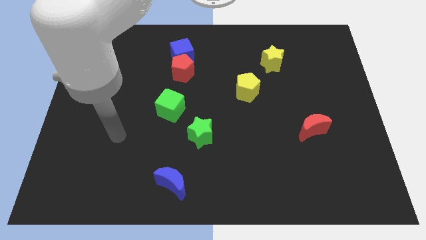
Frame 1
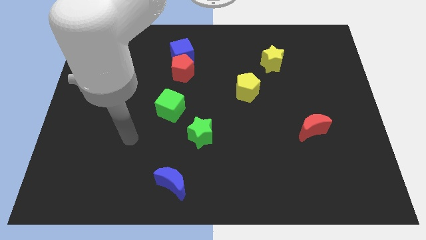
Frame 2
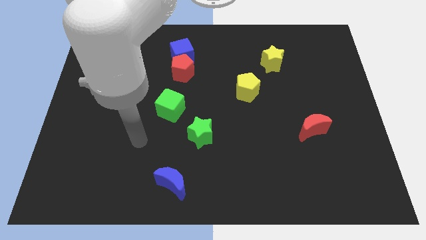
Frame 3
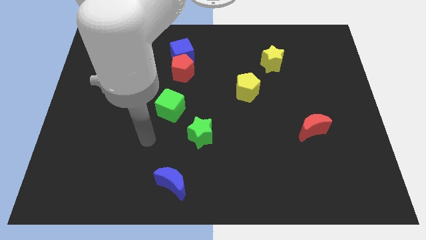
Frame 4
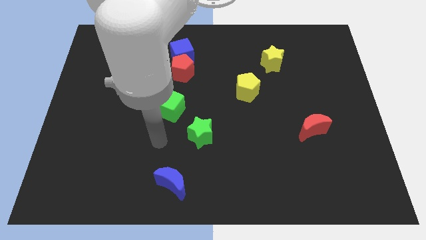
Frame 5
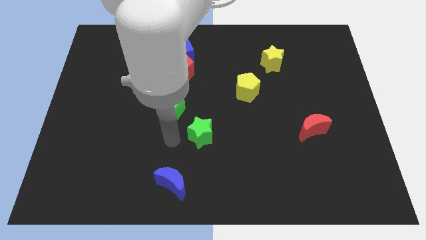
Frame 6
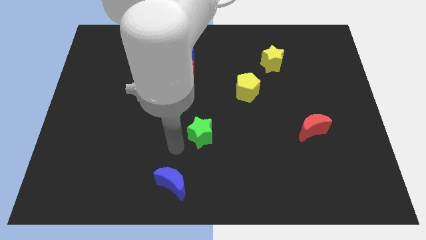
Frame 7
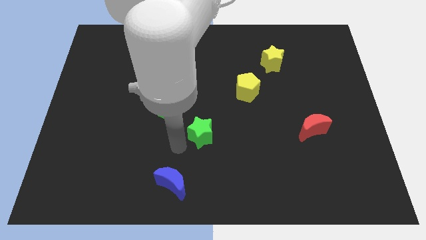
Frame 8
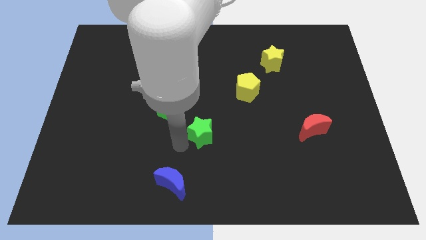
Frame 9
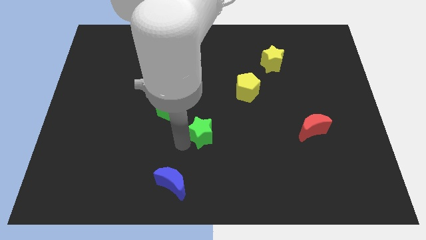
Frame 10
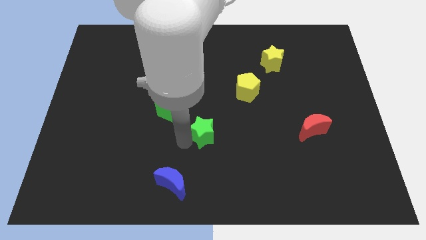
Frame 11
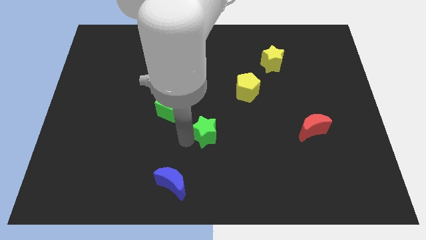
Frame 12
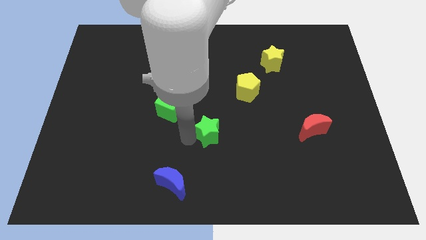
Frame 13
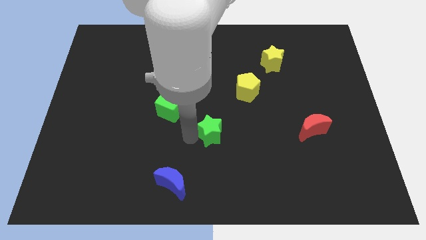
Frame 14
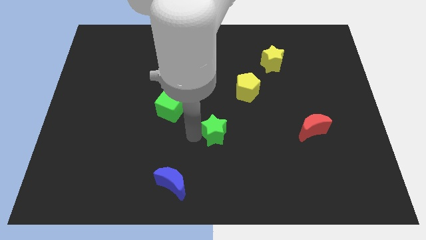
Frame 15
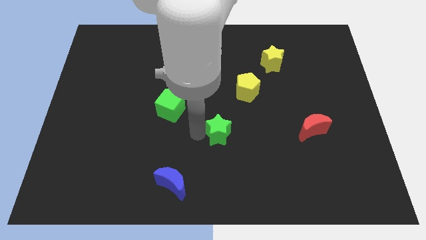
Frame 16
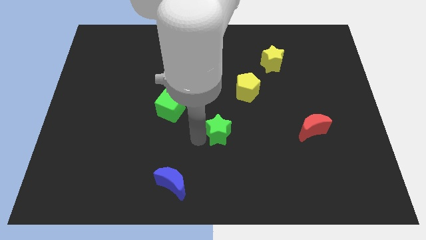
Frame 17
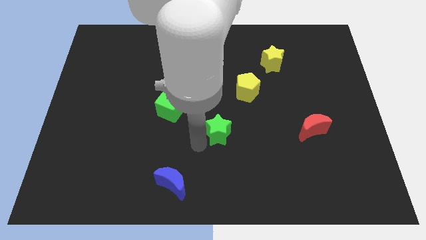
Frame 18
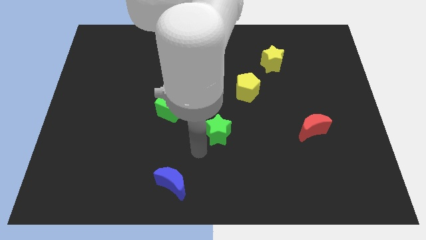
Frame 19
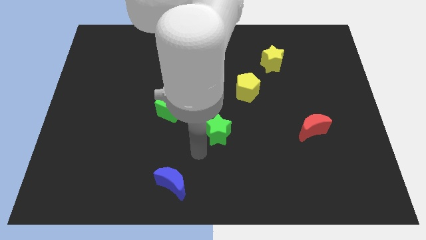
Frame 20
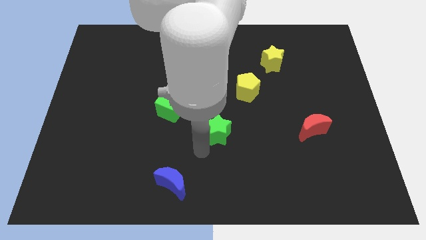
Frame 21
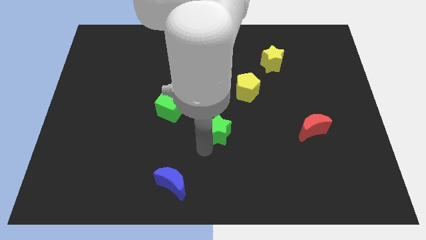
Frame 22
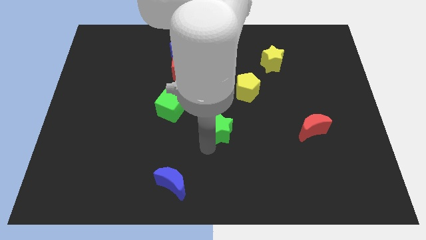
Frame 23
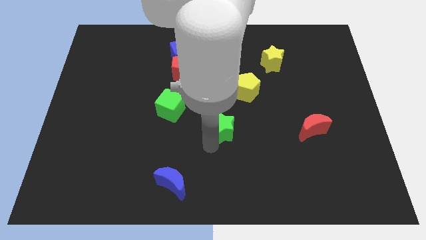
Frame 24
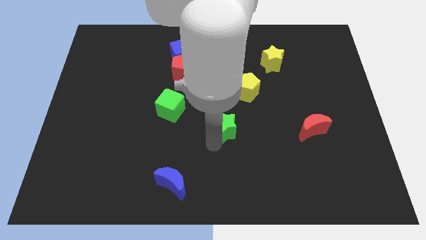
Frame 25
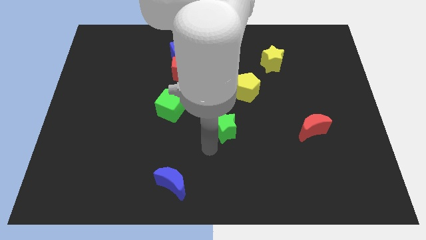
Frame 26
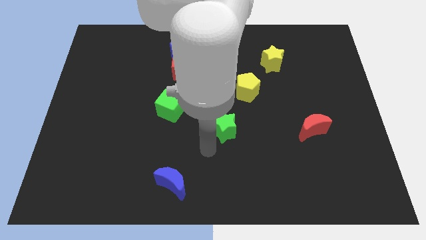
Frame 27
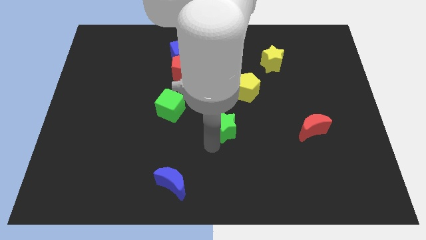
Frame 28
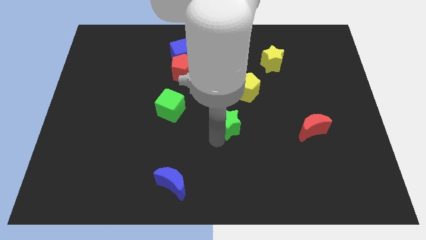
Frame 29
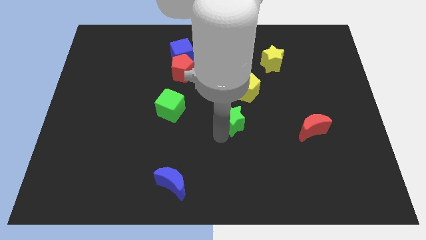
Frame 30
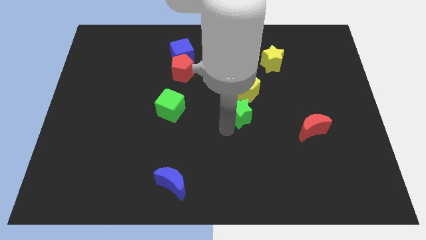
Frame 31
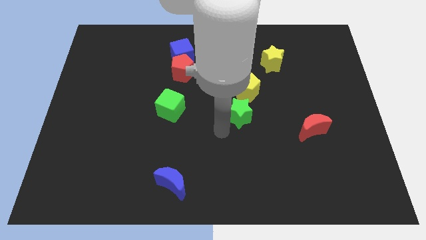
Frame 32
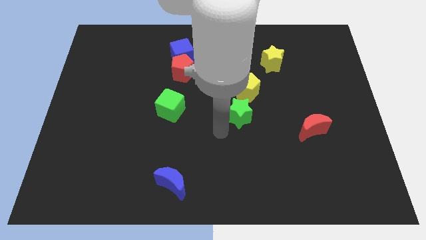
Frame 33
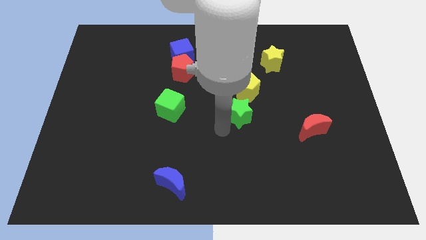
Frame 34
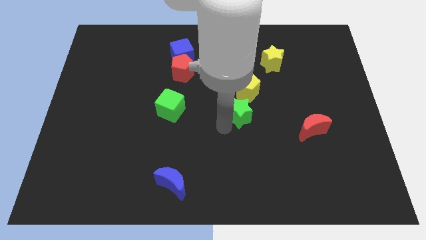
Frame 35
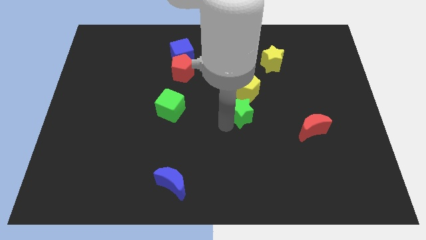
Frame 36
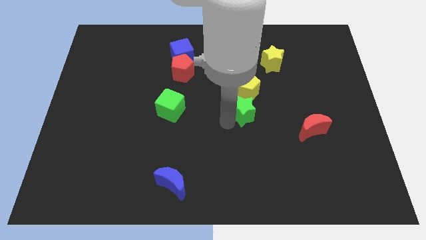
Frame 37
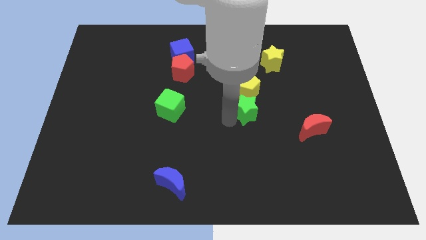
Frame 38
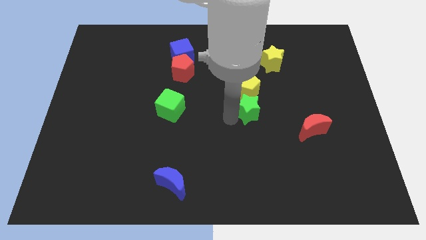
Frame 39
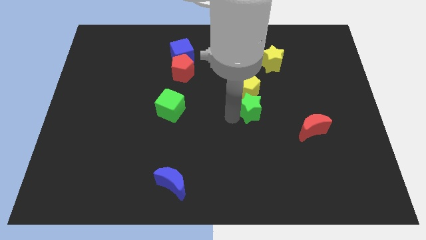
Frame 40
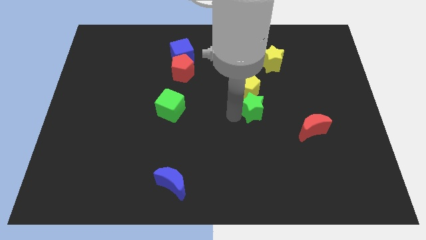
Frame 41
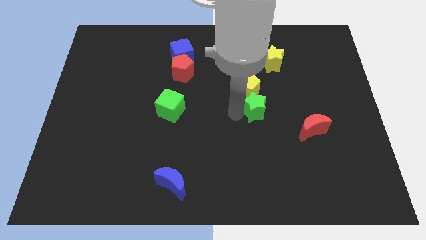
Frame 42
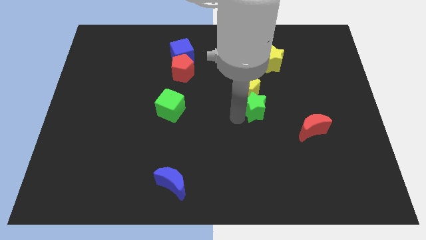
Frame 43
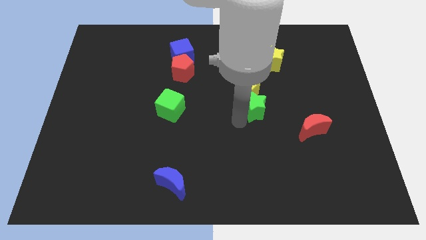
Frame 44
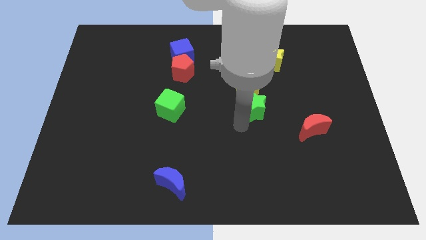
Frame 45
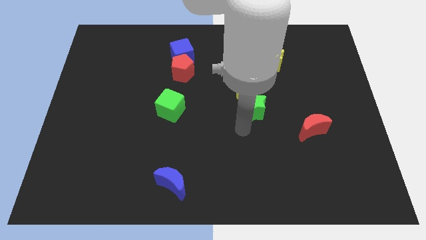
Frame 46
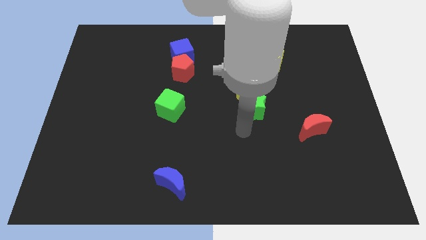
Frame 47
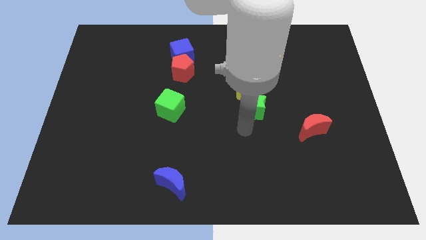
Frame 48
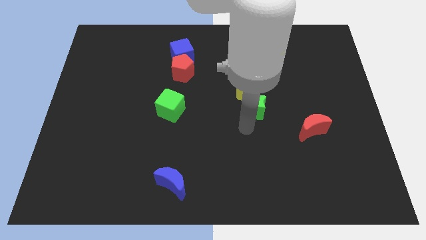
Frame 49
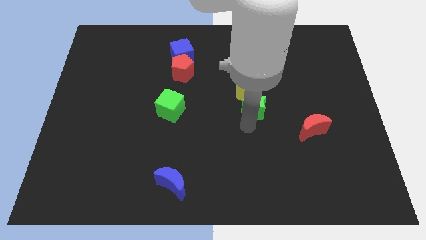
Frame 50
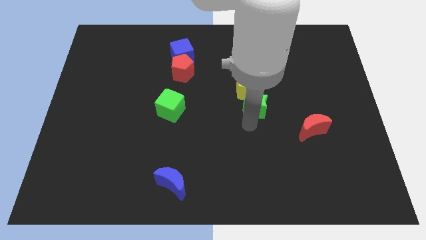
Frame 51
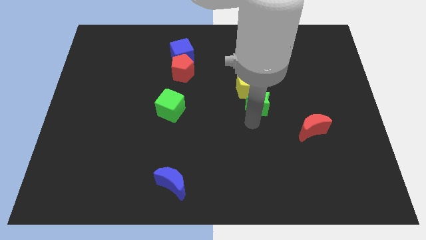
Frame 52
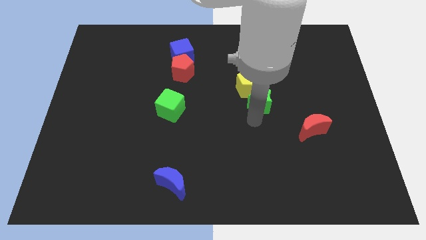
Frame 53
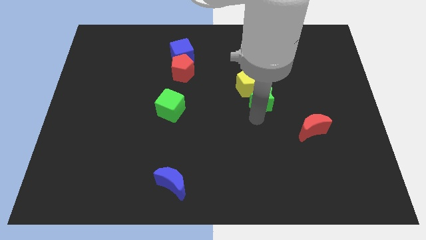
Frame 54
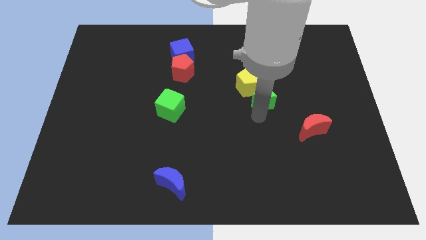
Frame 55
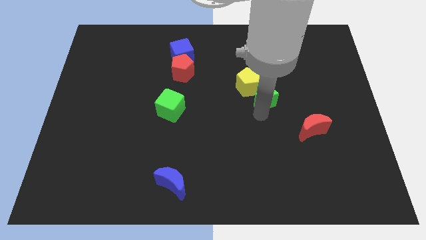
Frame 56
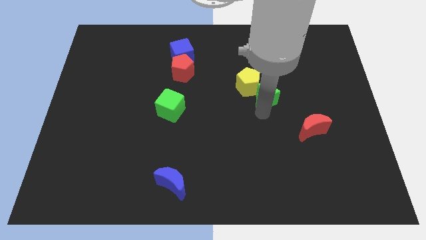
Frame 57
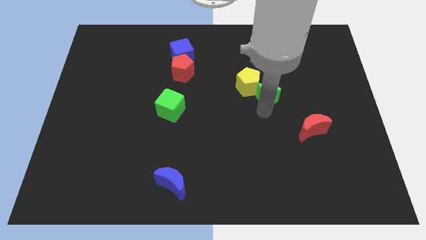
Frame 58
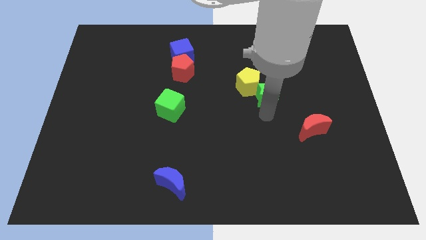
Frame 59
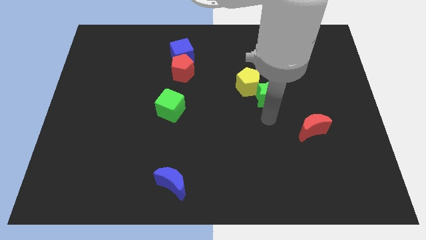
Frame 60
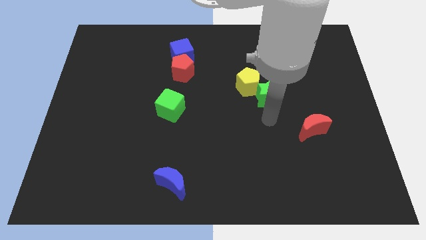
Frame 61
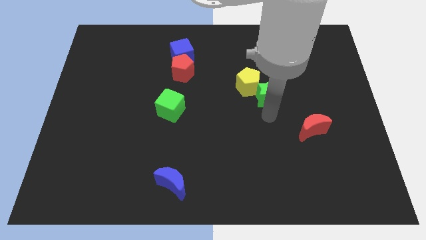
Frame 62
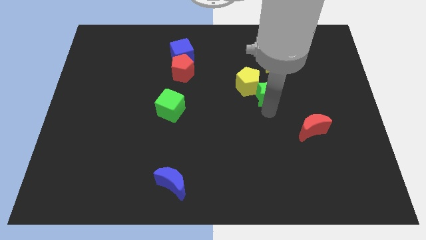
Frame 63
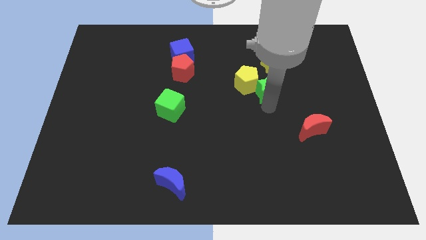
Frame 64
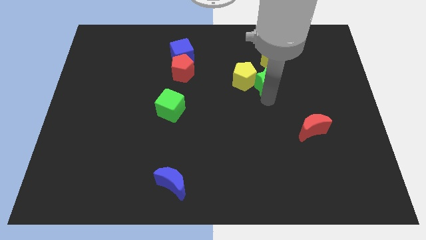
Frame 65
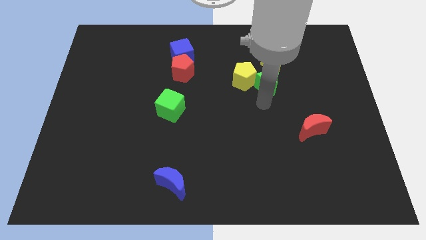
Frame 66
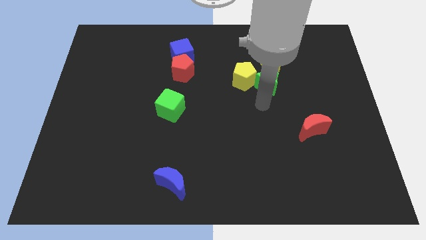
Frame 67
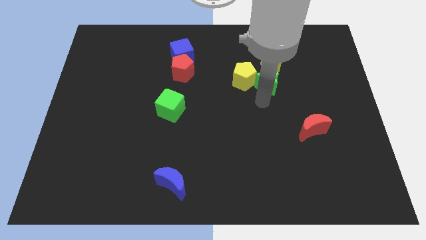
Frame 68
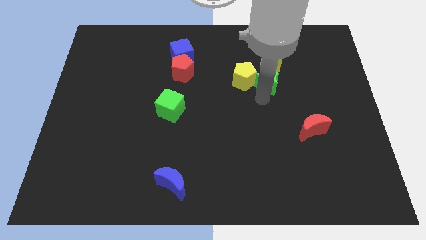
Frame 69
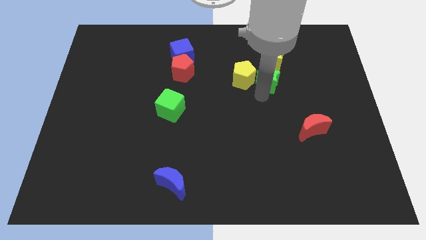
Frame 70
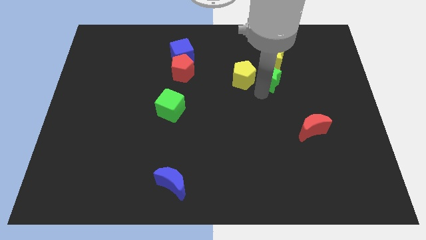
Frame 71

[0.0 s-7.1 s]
put the green star to the yellow star
